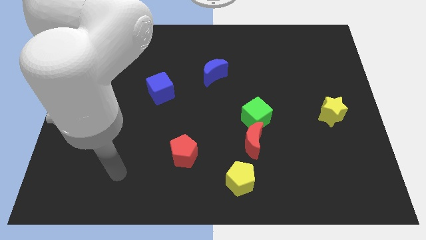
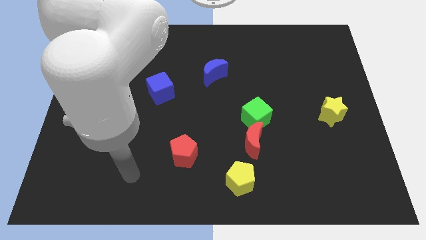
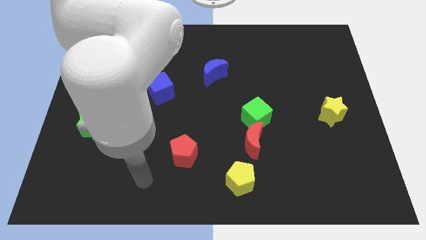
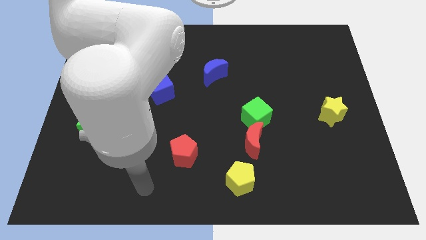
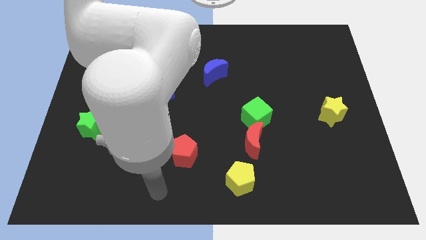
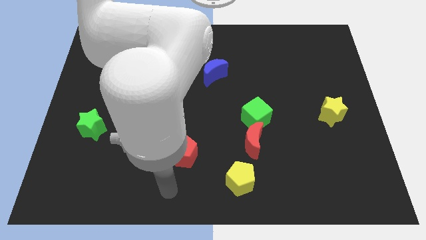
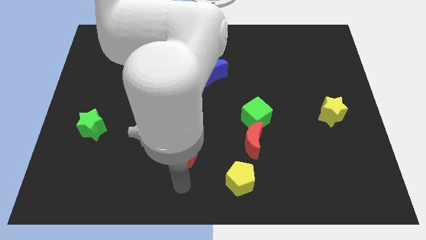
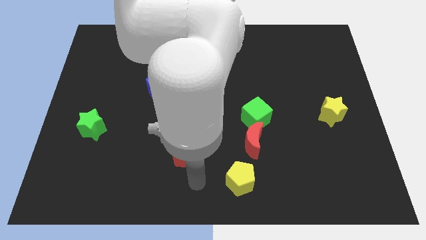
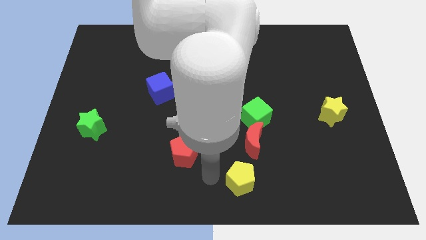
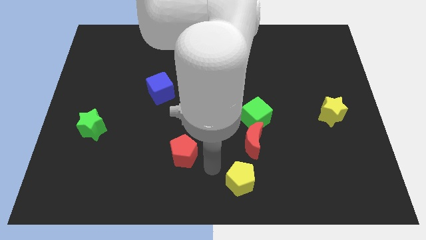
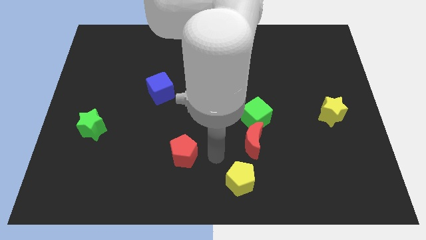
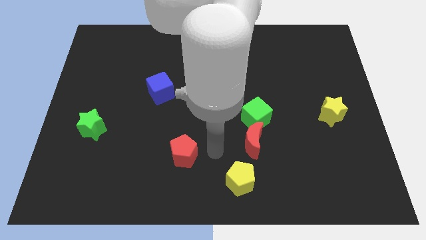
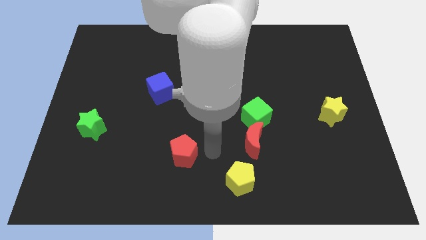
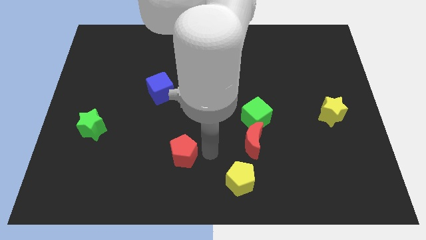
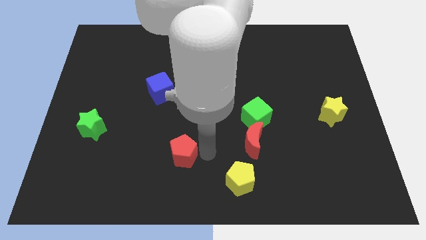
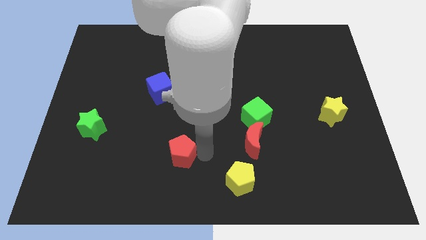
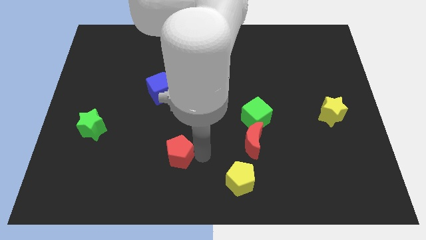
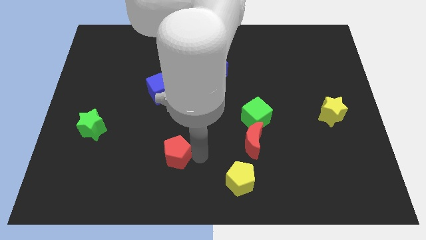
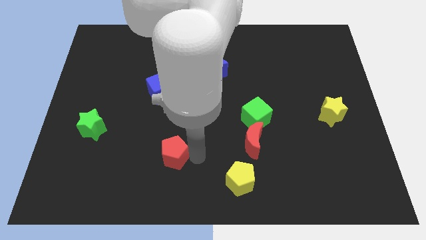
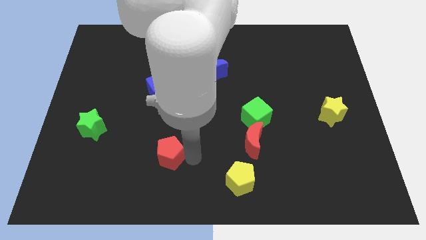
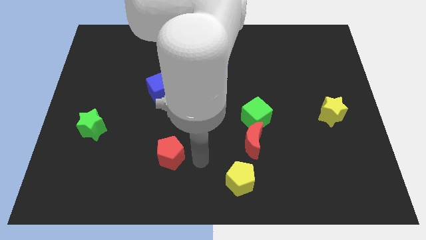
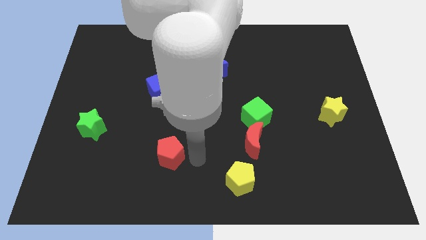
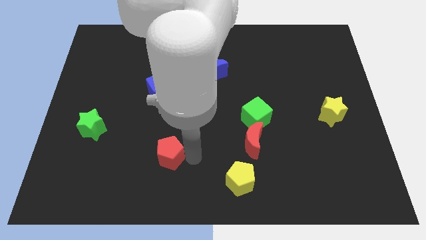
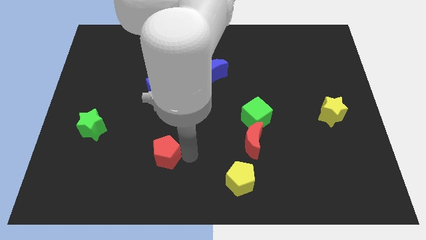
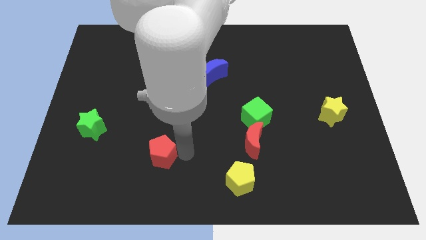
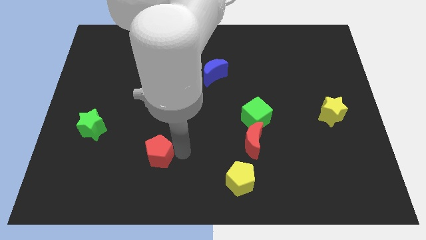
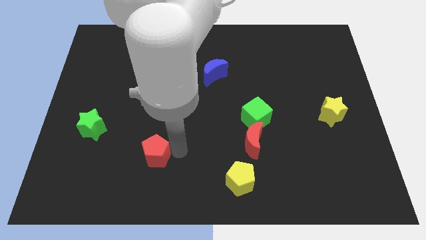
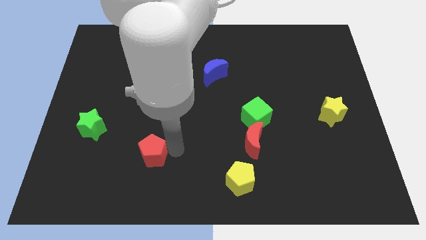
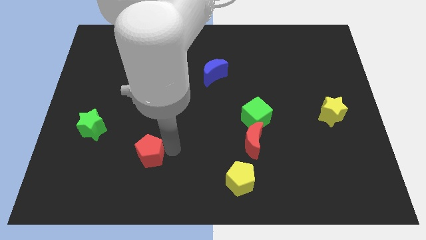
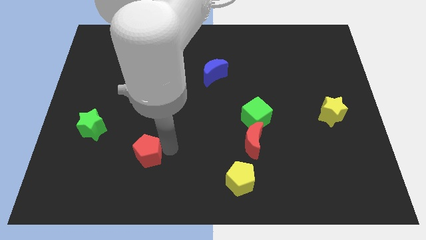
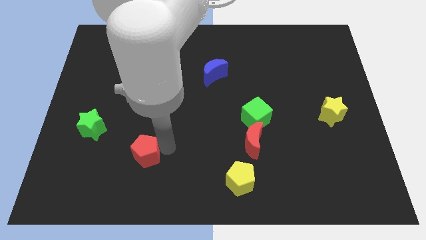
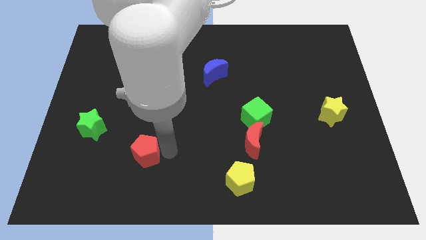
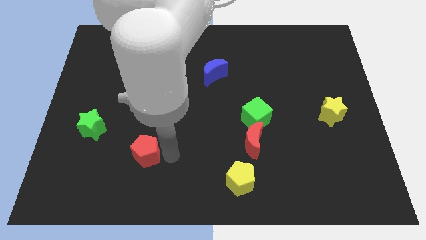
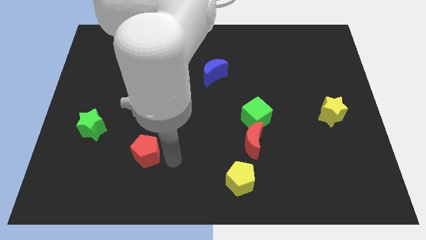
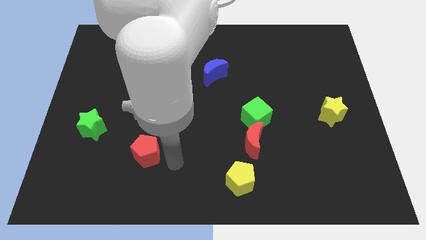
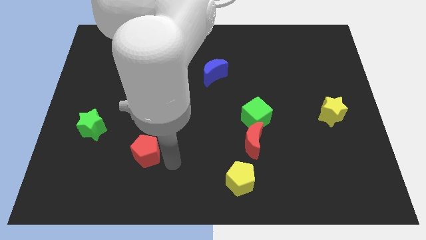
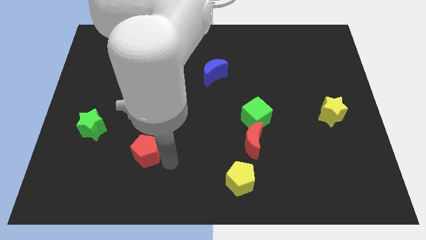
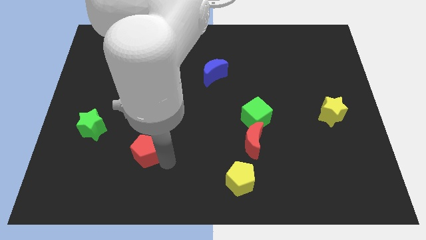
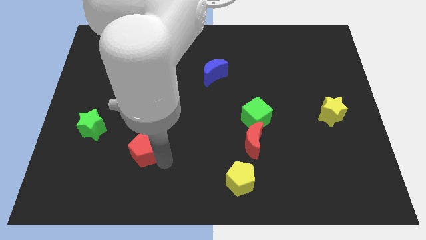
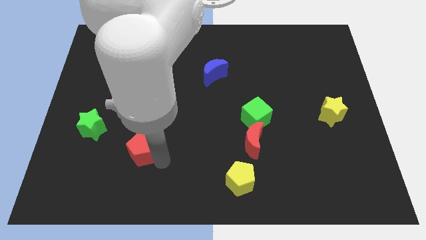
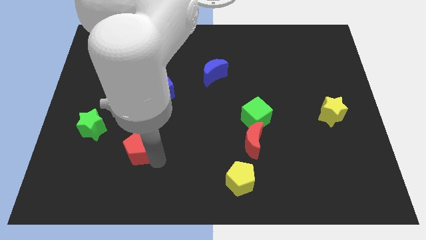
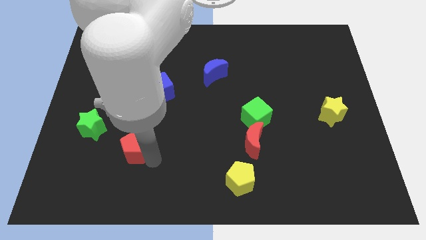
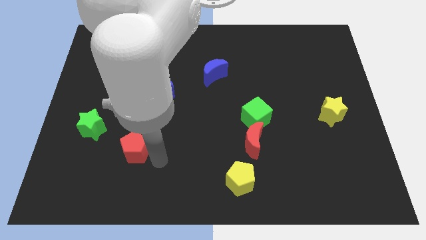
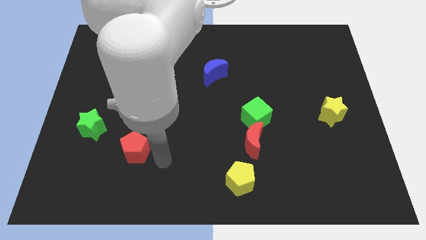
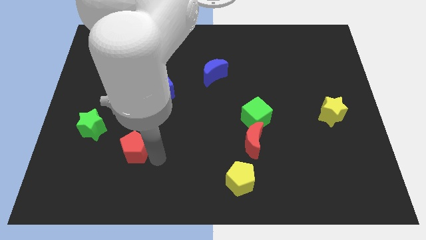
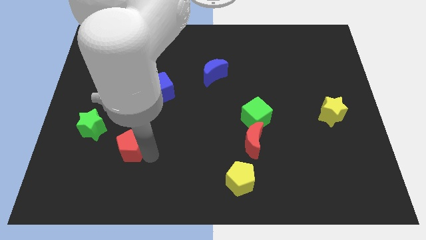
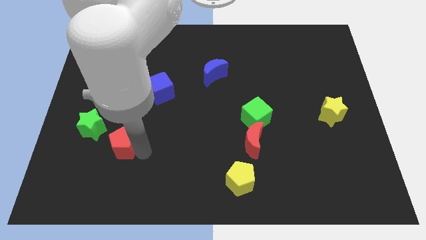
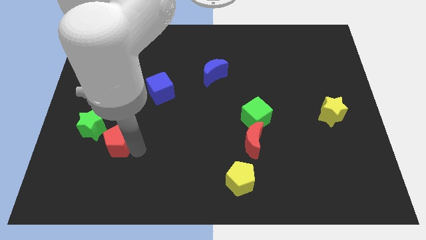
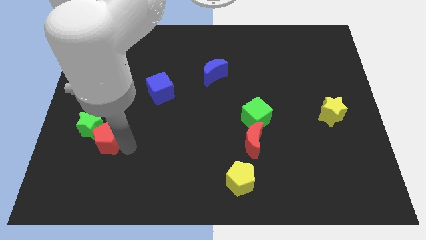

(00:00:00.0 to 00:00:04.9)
move the red pentagon next to the green star

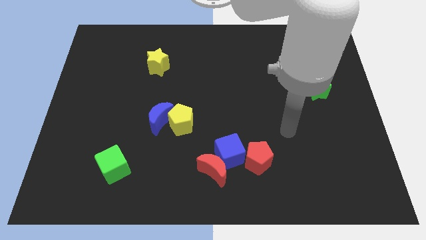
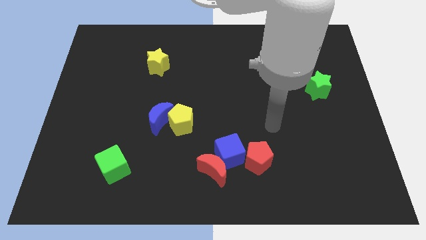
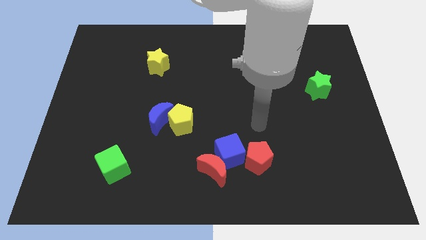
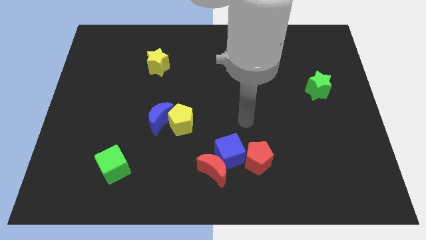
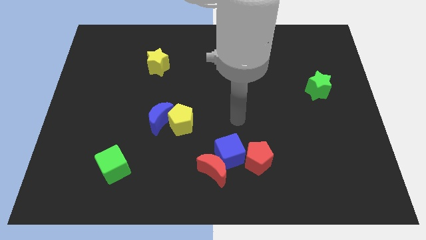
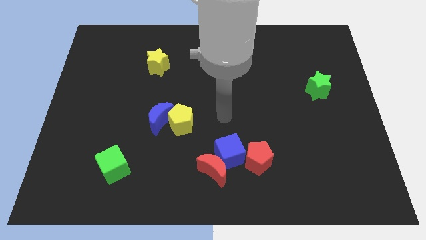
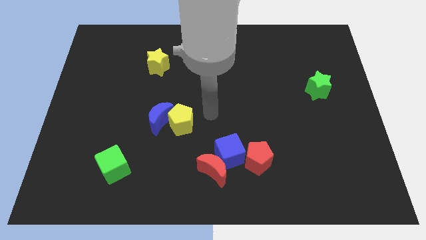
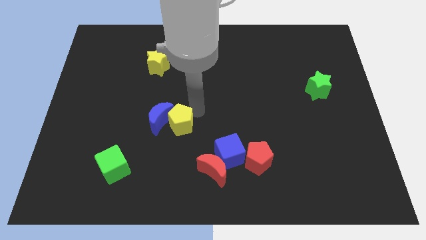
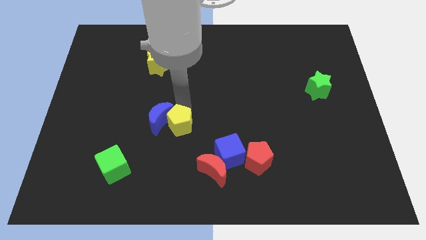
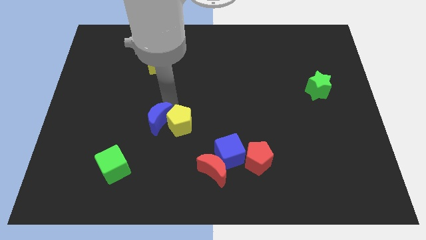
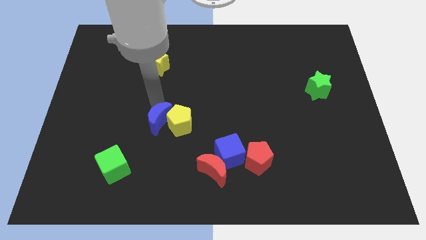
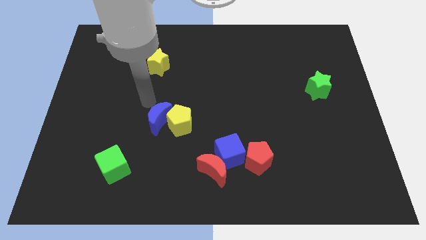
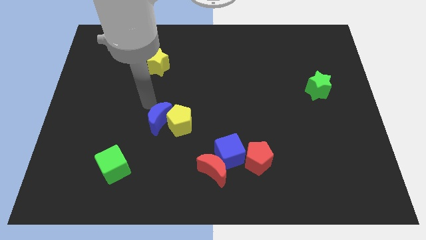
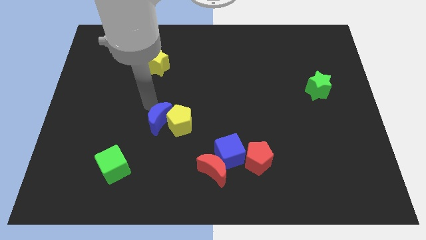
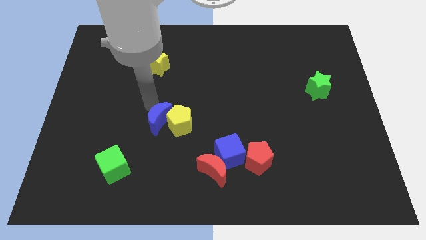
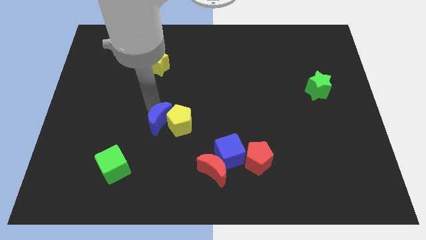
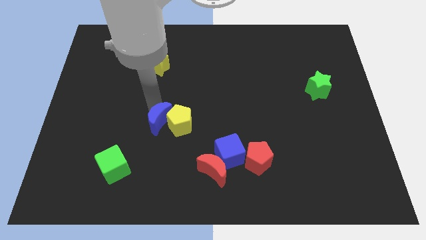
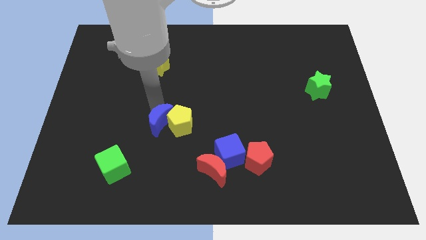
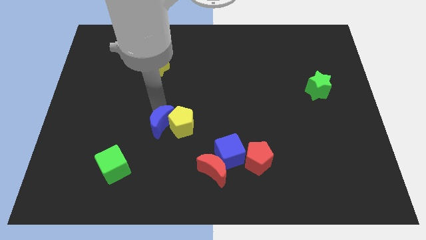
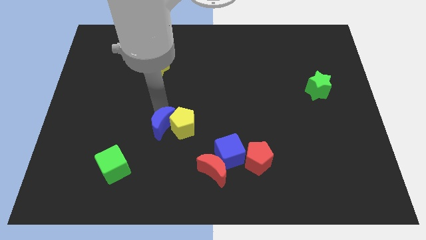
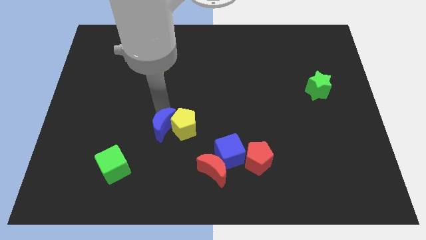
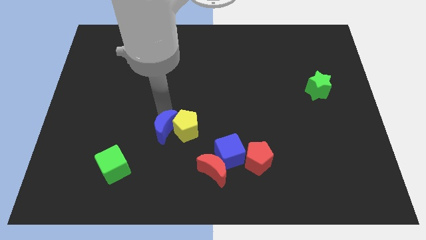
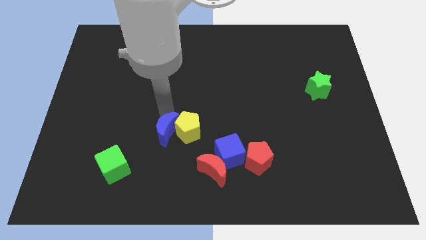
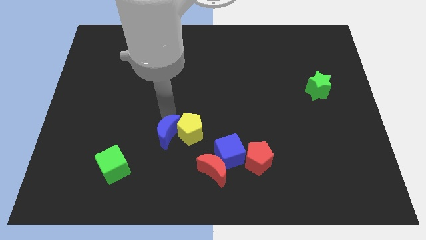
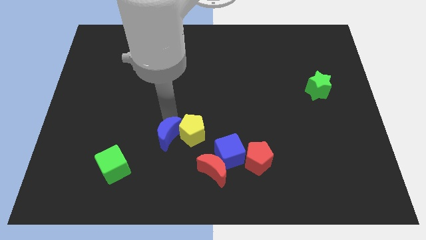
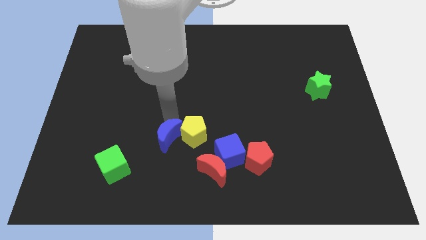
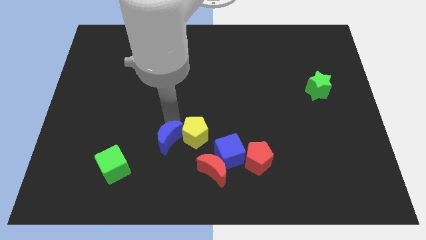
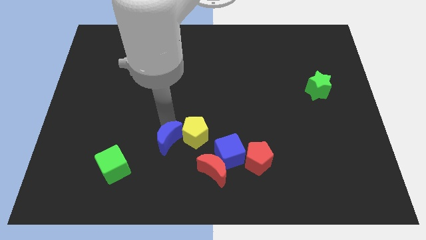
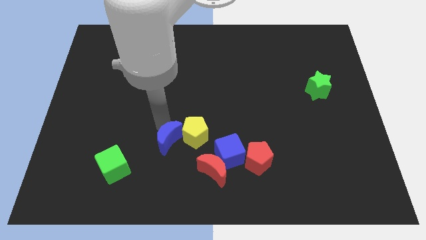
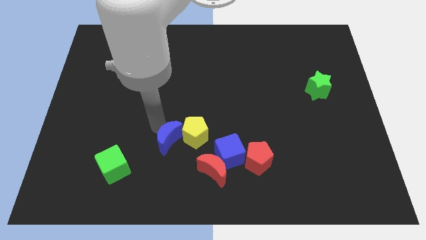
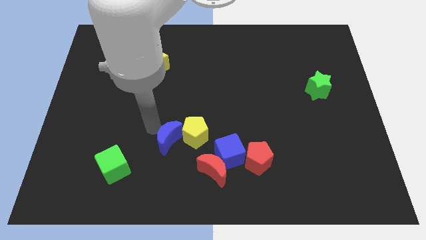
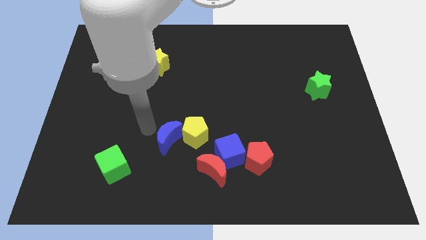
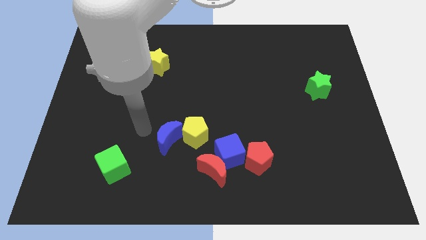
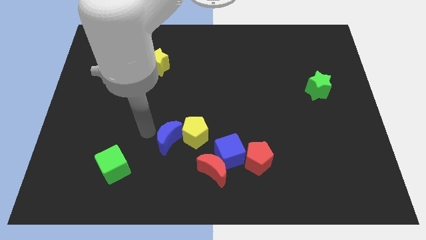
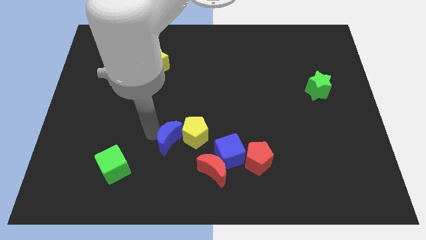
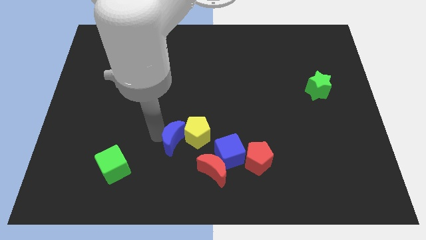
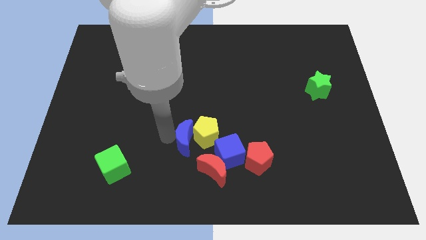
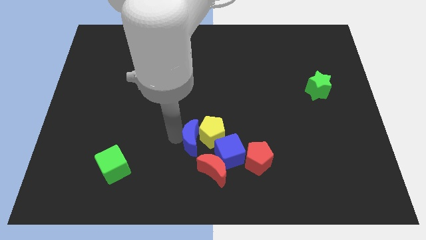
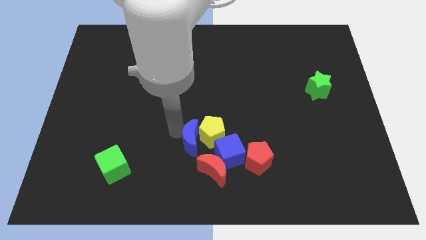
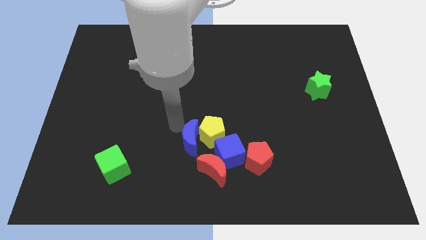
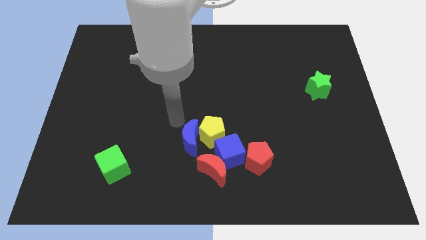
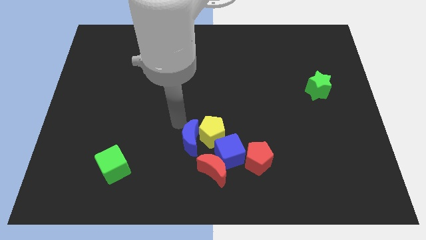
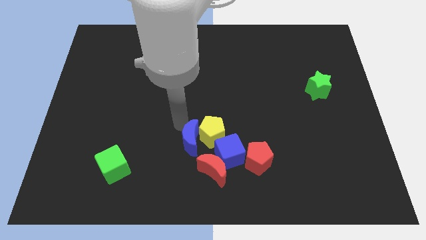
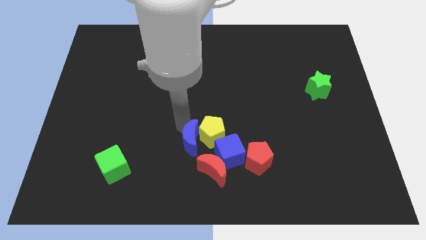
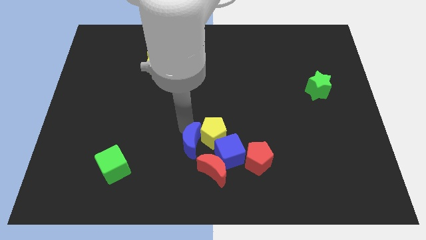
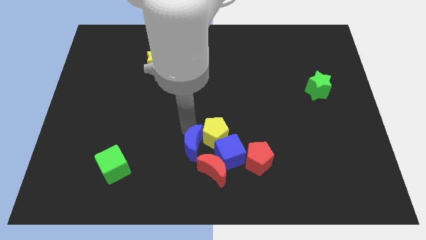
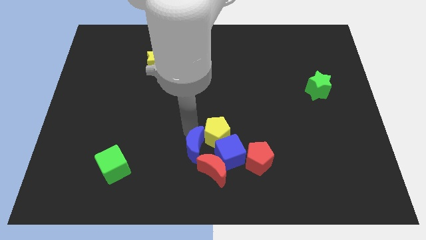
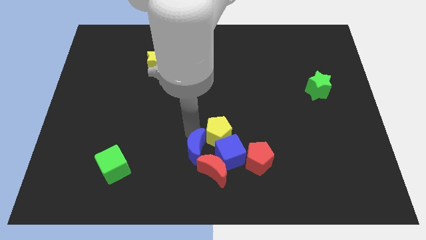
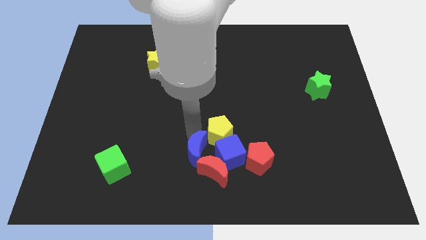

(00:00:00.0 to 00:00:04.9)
put the blue moon to the red moon
